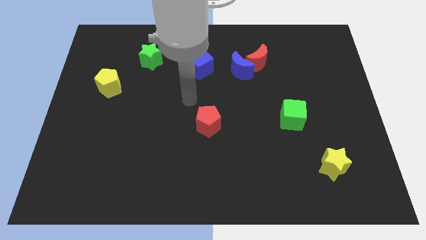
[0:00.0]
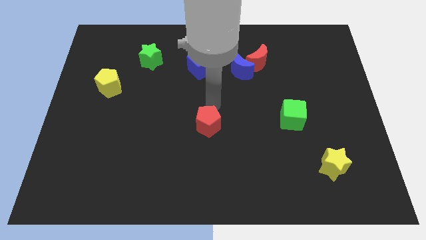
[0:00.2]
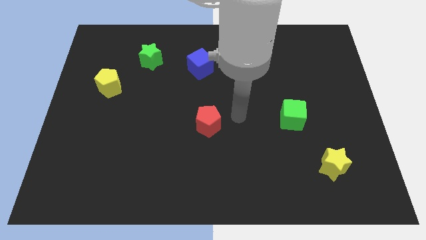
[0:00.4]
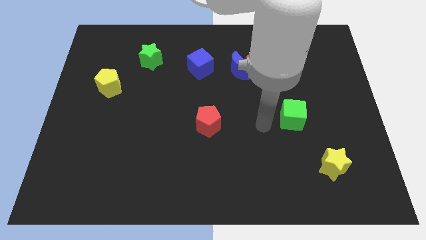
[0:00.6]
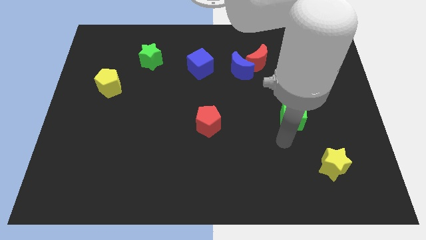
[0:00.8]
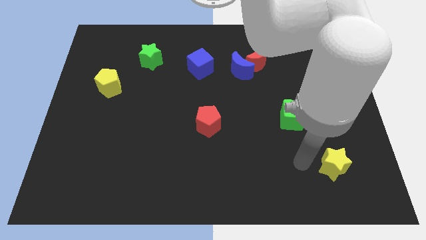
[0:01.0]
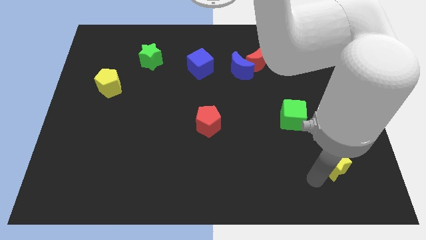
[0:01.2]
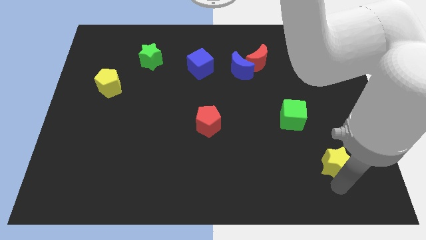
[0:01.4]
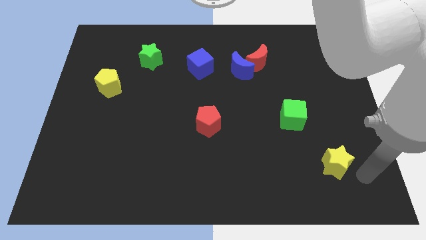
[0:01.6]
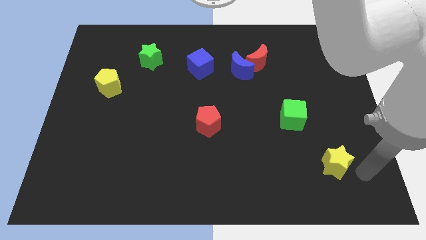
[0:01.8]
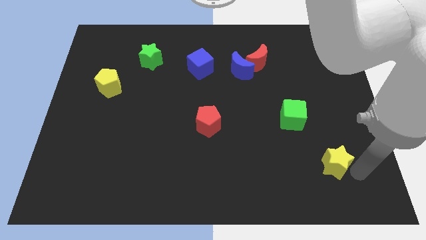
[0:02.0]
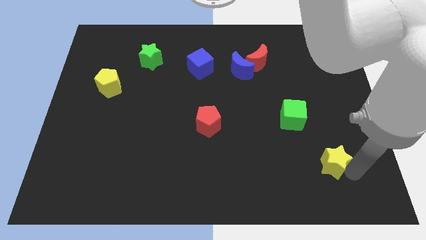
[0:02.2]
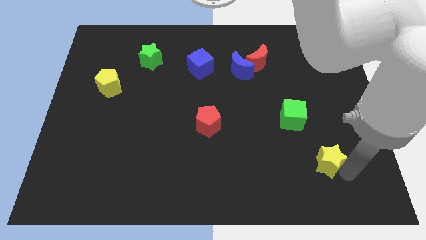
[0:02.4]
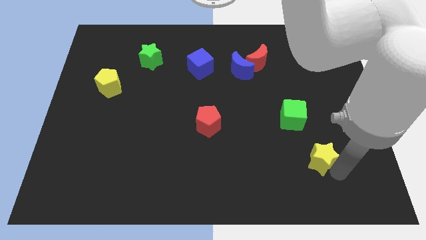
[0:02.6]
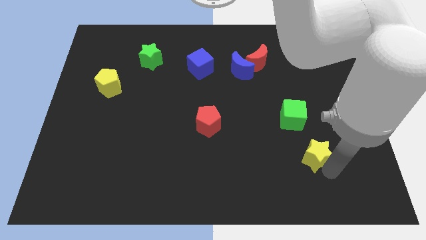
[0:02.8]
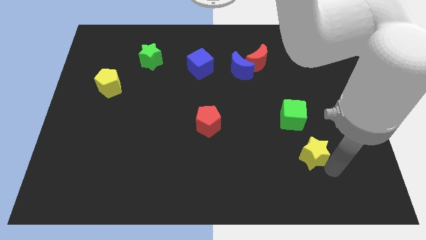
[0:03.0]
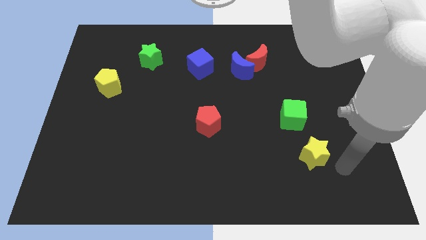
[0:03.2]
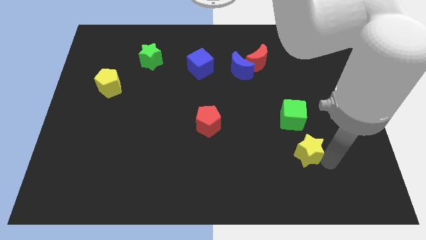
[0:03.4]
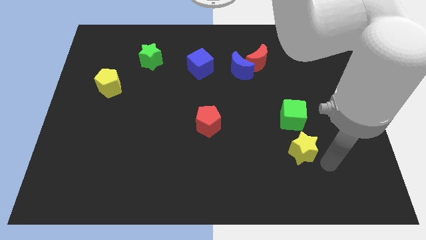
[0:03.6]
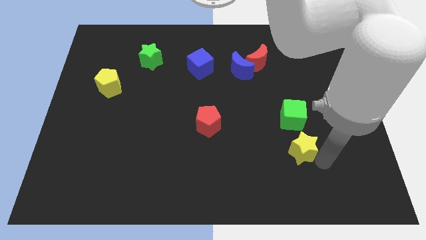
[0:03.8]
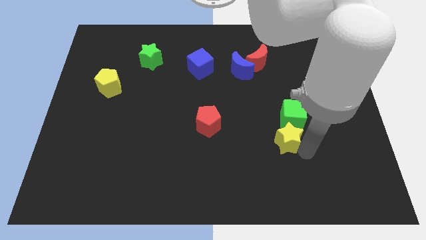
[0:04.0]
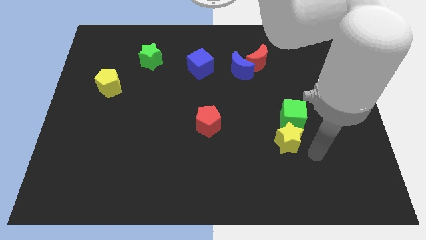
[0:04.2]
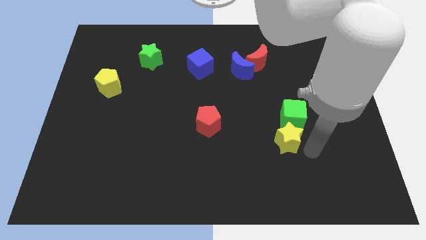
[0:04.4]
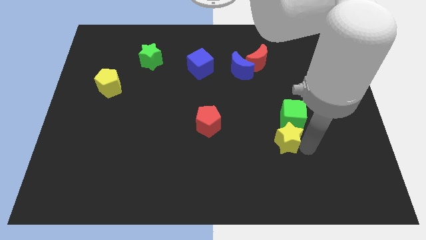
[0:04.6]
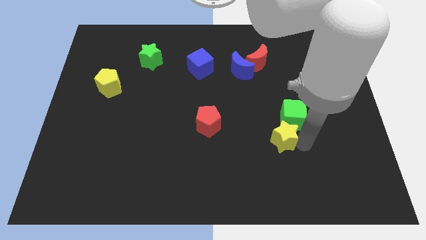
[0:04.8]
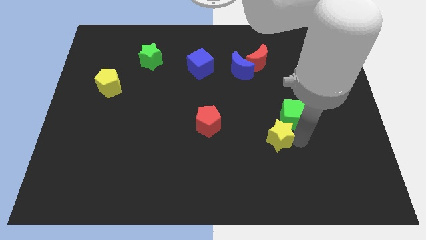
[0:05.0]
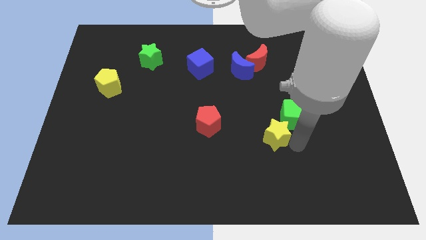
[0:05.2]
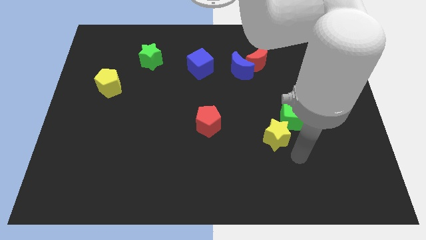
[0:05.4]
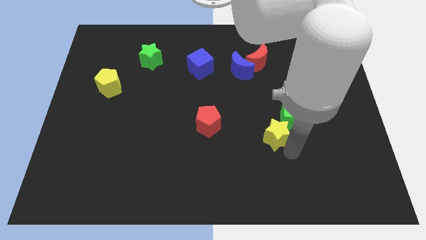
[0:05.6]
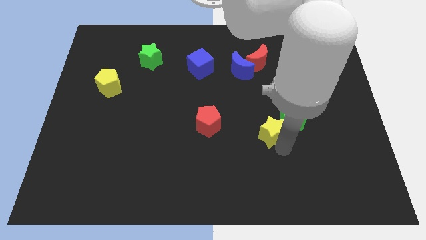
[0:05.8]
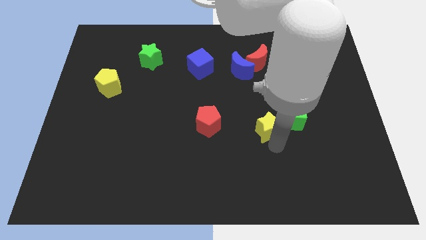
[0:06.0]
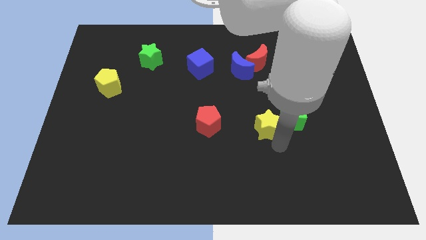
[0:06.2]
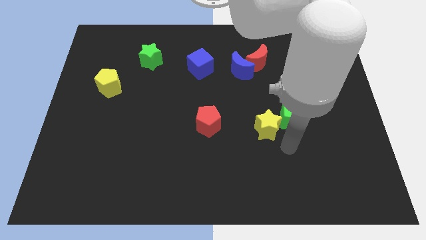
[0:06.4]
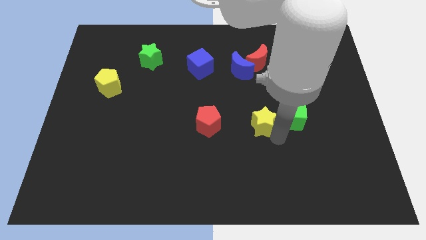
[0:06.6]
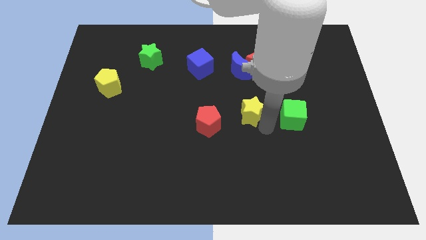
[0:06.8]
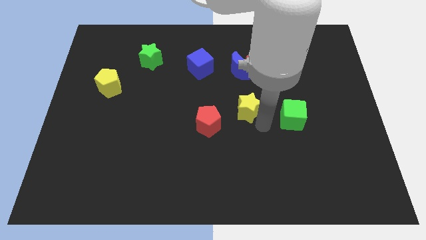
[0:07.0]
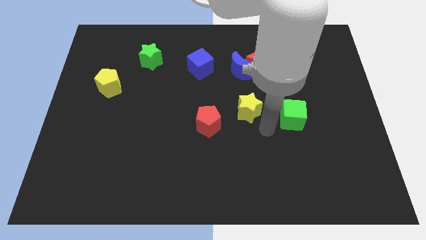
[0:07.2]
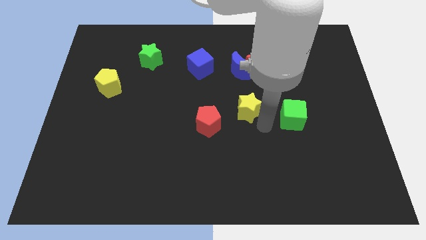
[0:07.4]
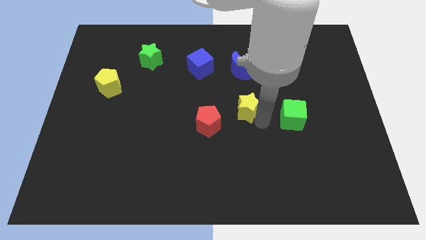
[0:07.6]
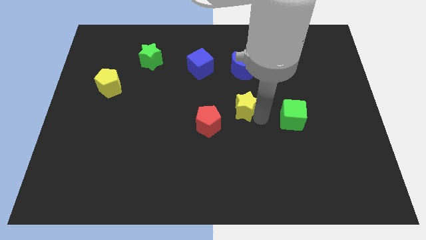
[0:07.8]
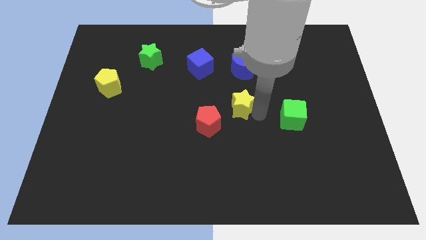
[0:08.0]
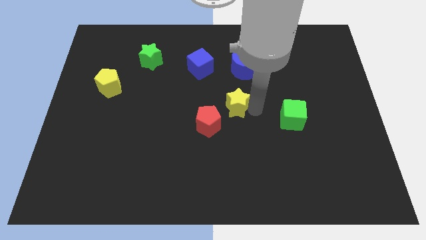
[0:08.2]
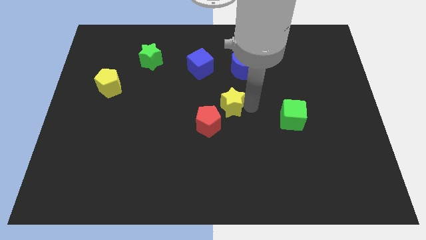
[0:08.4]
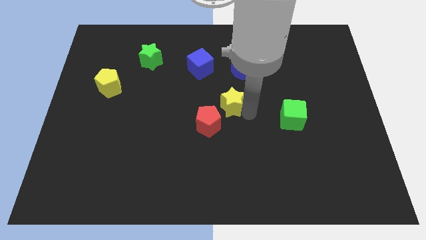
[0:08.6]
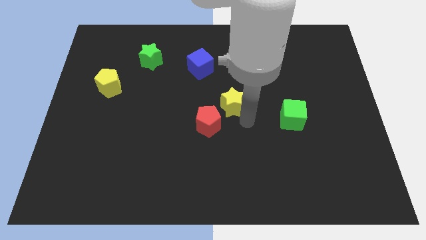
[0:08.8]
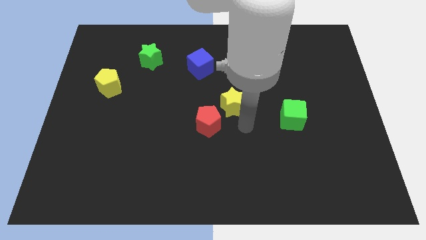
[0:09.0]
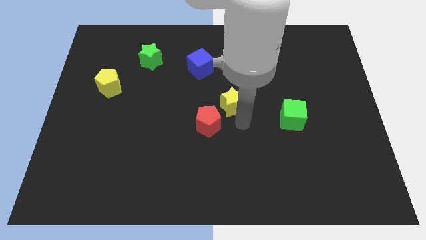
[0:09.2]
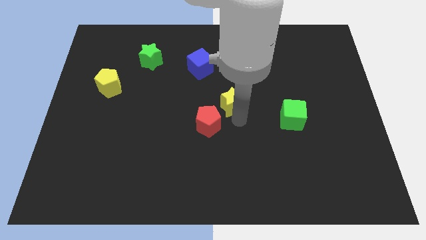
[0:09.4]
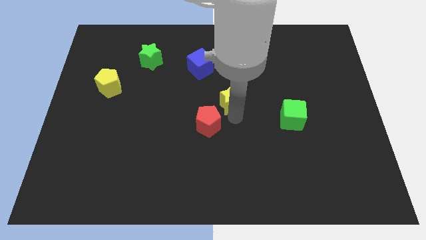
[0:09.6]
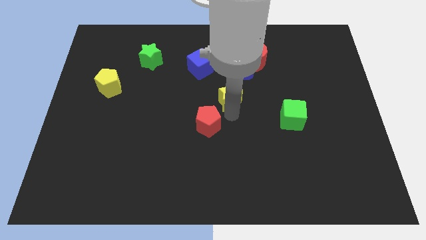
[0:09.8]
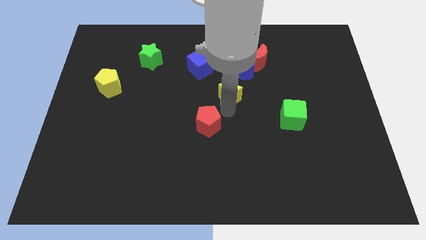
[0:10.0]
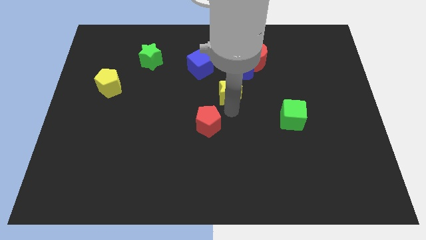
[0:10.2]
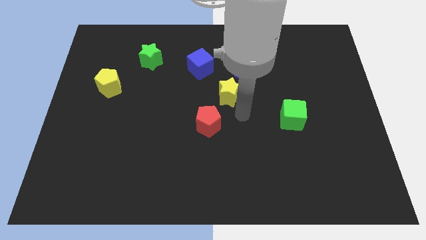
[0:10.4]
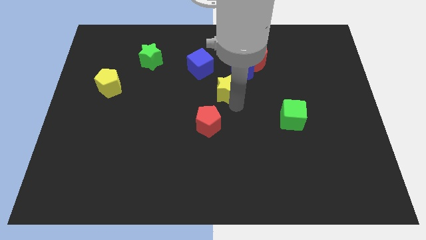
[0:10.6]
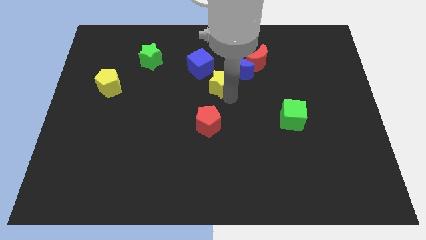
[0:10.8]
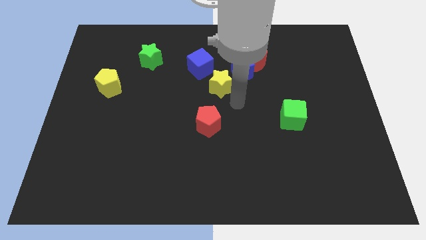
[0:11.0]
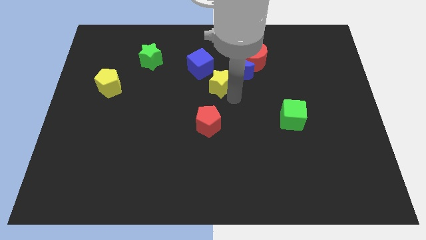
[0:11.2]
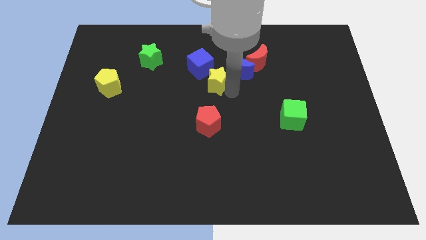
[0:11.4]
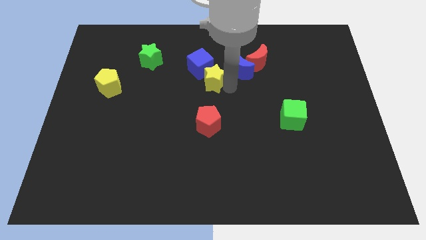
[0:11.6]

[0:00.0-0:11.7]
push the yellow star close to the blue cube

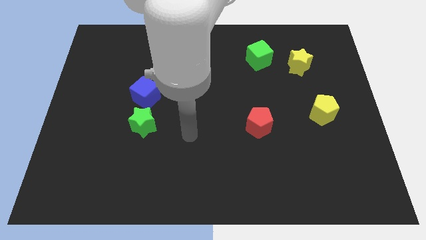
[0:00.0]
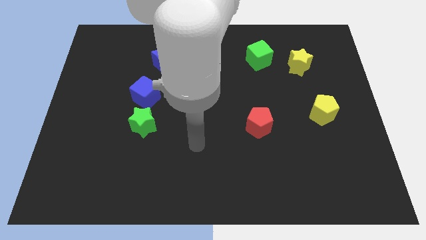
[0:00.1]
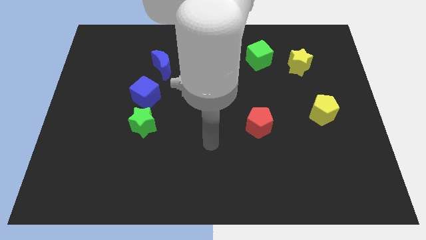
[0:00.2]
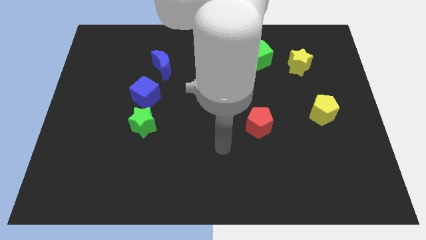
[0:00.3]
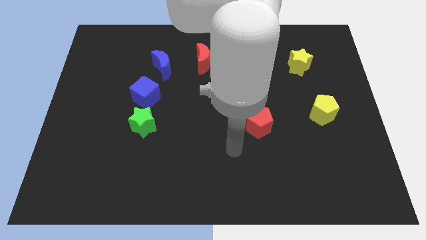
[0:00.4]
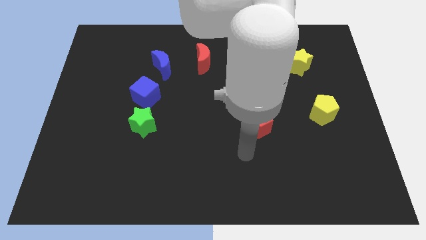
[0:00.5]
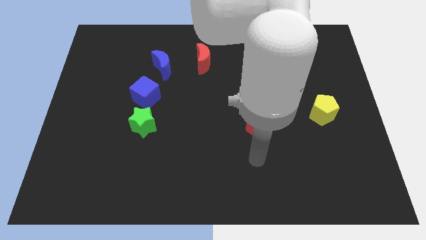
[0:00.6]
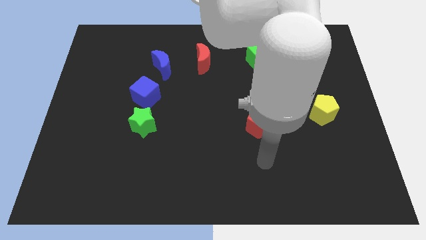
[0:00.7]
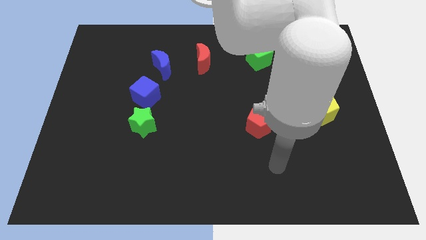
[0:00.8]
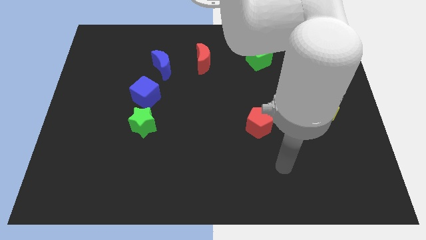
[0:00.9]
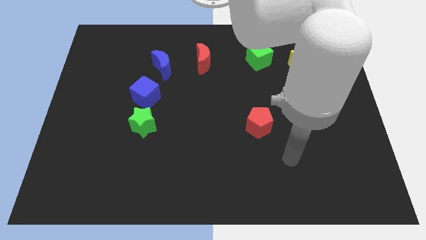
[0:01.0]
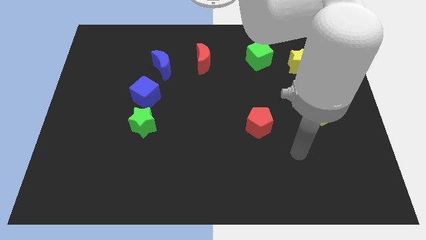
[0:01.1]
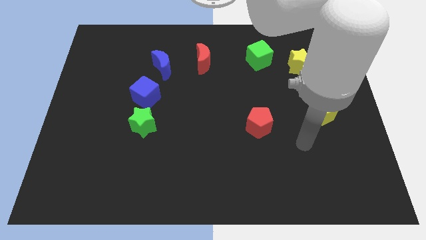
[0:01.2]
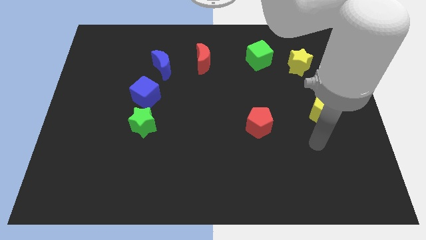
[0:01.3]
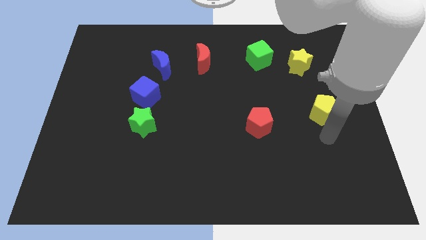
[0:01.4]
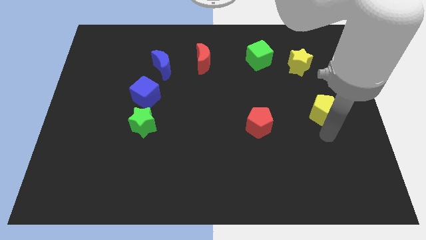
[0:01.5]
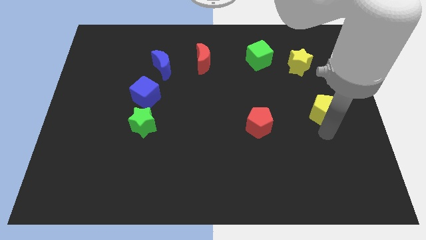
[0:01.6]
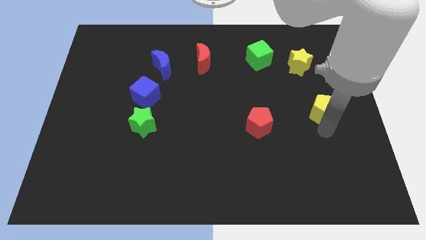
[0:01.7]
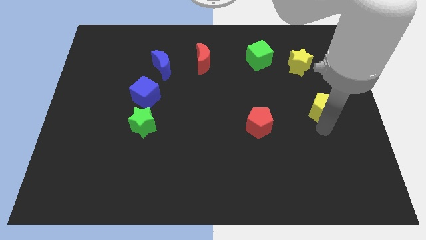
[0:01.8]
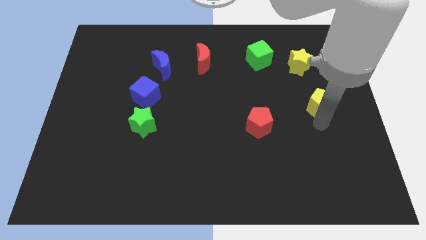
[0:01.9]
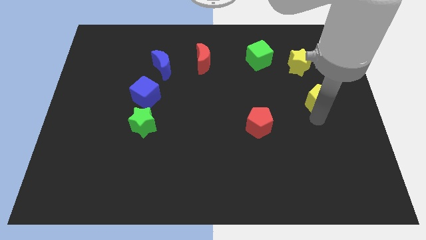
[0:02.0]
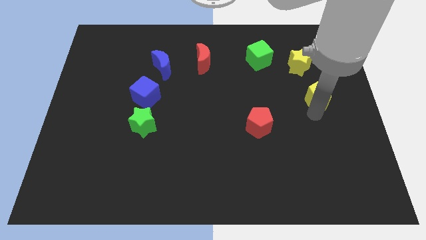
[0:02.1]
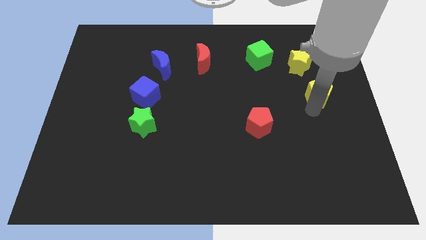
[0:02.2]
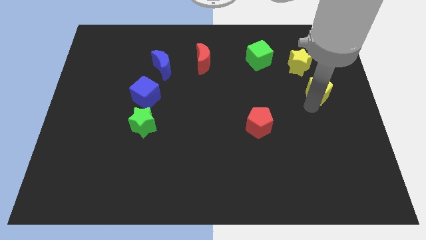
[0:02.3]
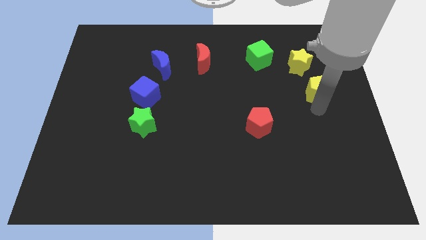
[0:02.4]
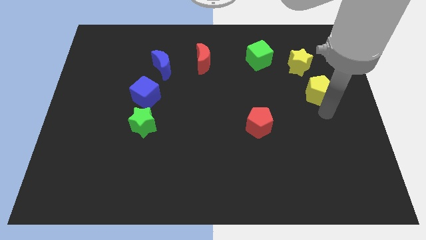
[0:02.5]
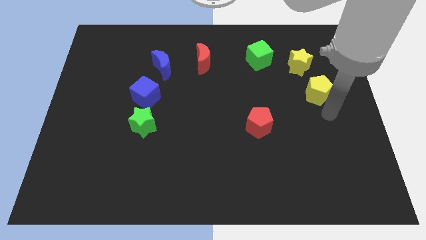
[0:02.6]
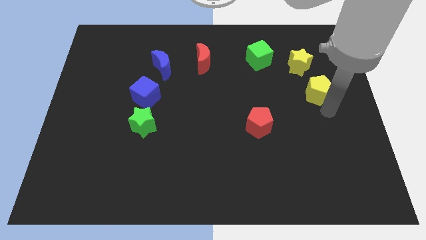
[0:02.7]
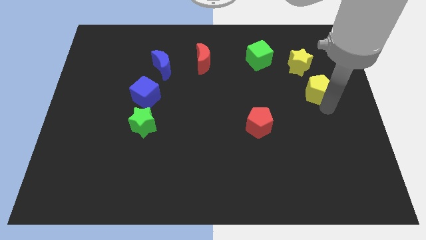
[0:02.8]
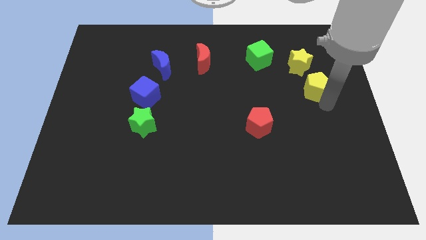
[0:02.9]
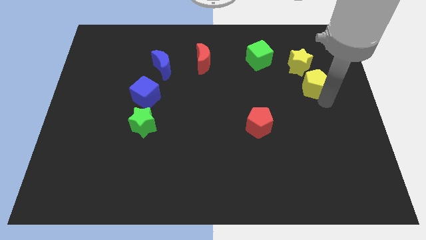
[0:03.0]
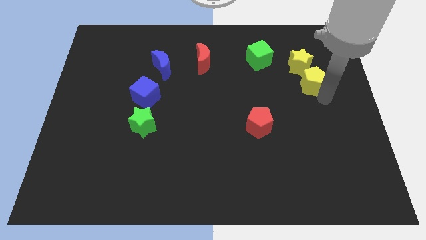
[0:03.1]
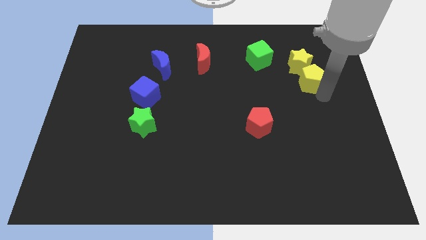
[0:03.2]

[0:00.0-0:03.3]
move the yellow pentagon next to the yellow star
